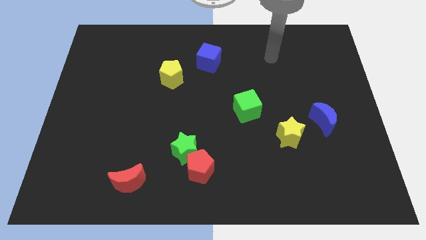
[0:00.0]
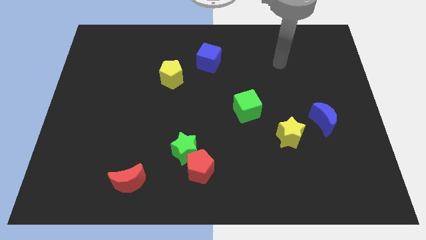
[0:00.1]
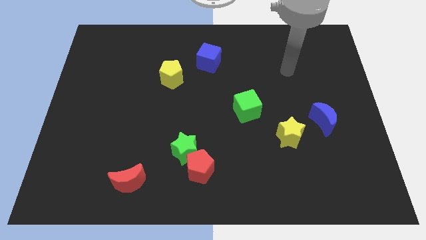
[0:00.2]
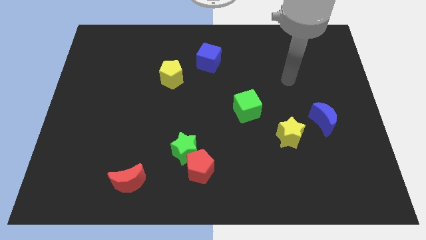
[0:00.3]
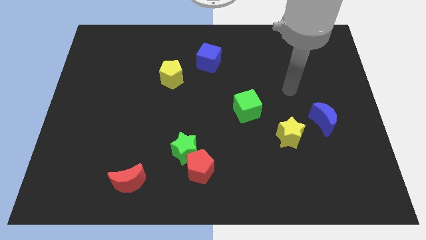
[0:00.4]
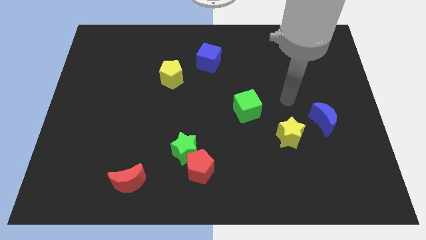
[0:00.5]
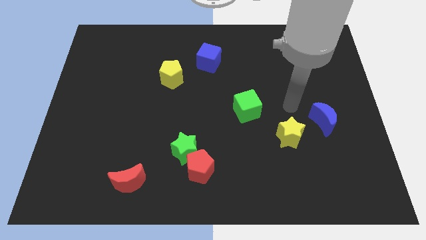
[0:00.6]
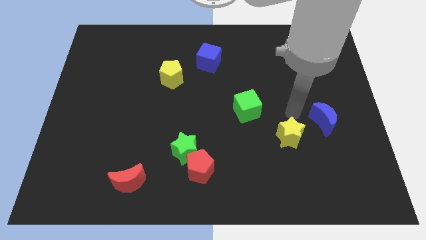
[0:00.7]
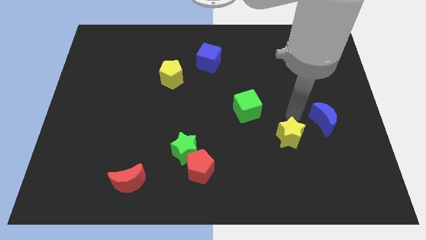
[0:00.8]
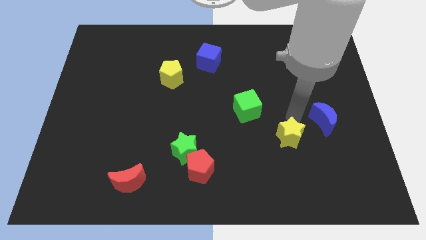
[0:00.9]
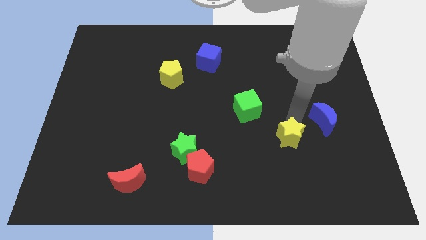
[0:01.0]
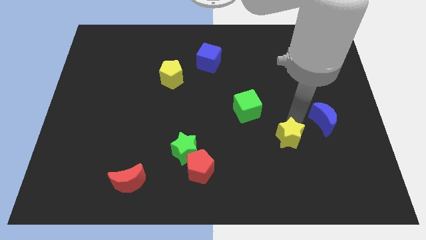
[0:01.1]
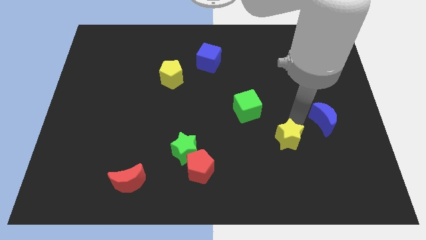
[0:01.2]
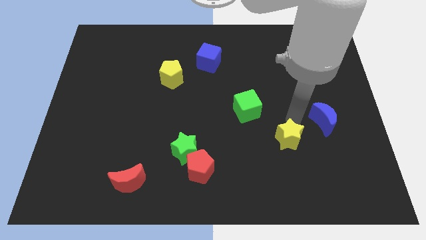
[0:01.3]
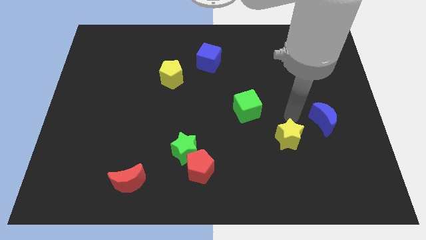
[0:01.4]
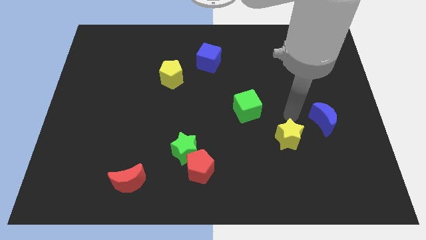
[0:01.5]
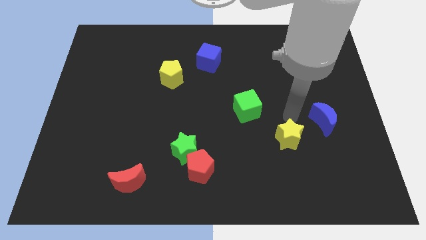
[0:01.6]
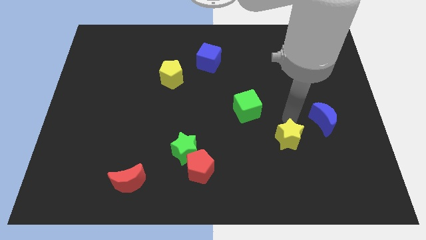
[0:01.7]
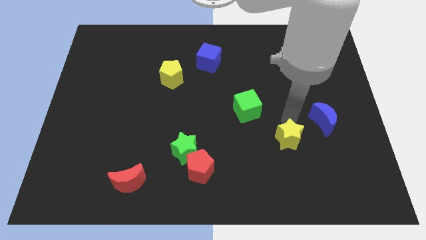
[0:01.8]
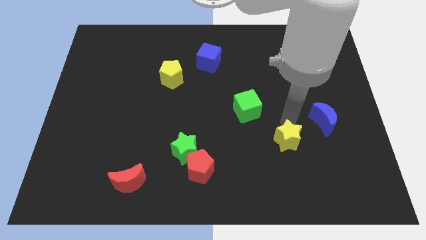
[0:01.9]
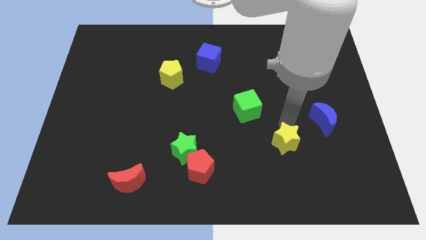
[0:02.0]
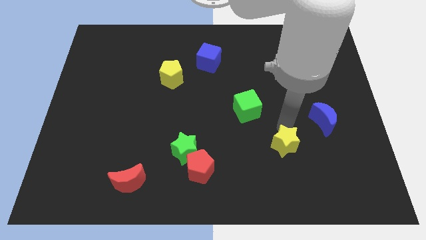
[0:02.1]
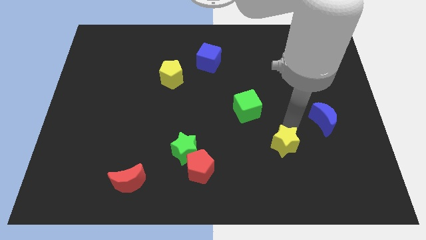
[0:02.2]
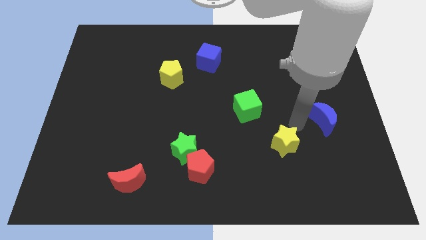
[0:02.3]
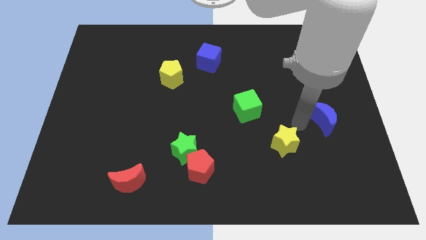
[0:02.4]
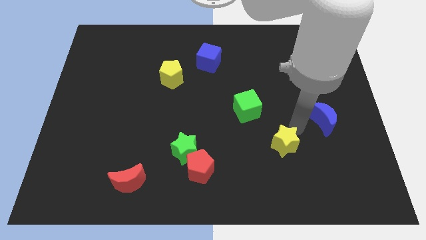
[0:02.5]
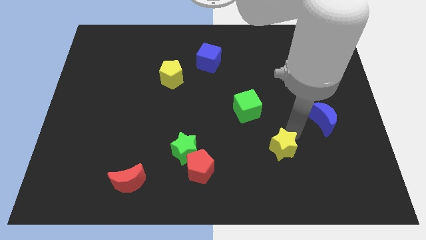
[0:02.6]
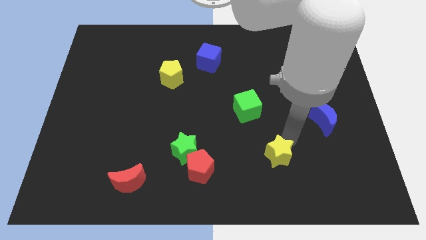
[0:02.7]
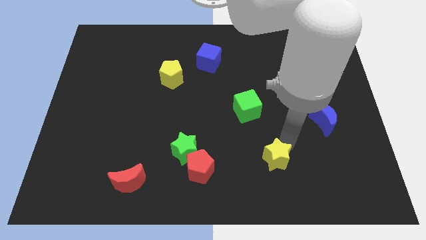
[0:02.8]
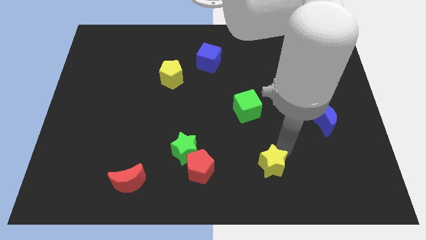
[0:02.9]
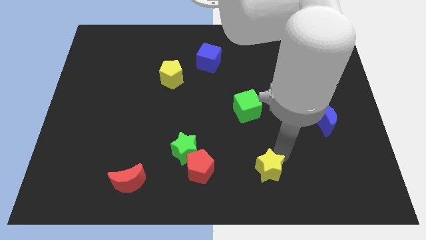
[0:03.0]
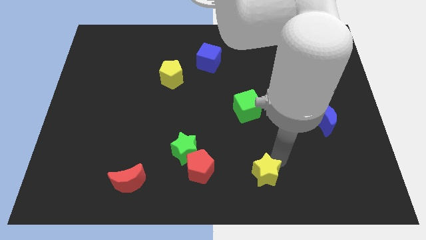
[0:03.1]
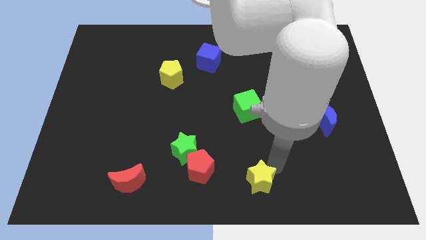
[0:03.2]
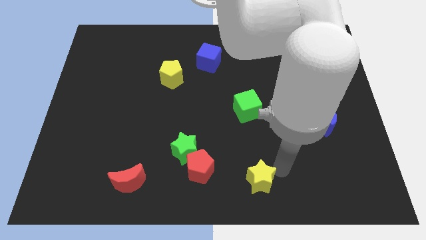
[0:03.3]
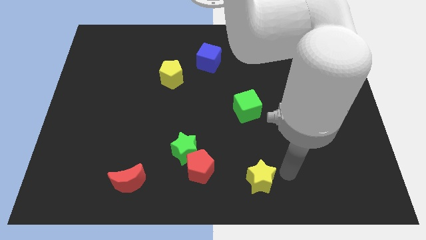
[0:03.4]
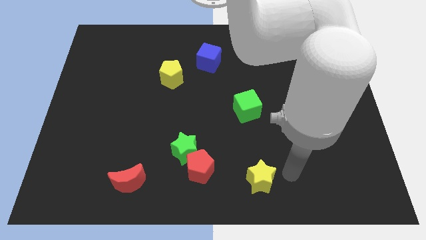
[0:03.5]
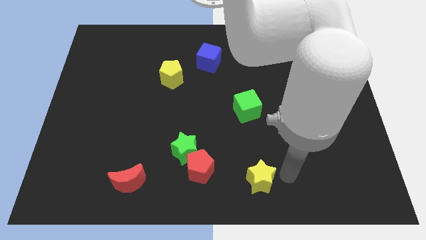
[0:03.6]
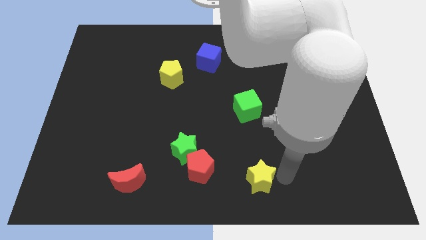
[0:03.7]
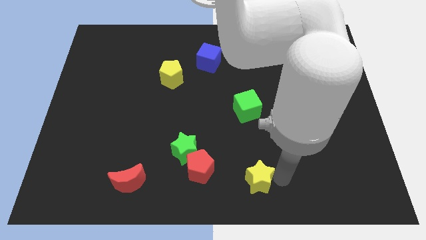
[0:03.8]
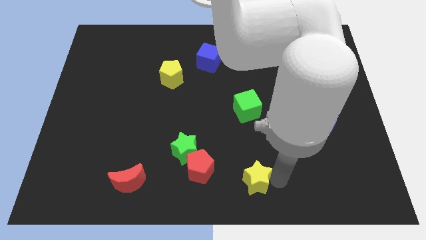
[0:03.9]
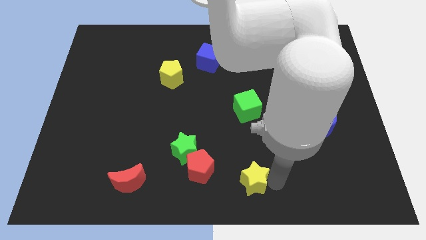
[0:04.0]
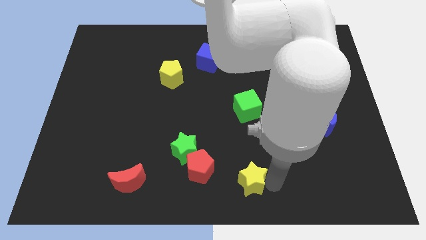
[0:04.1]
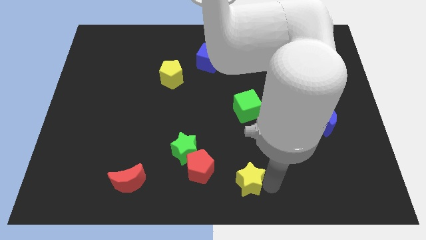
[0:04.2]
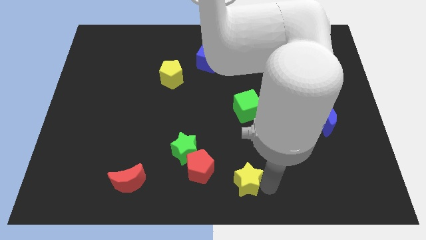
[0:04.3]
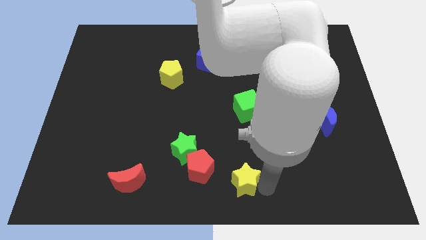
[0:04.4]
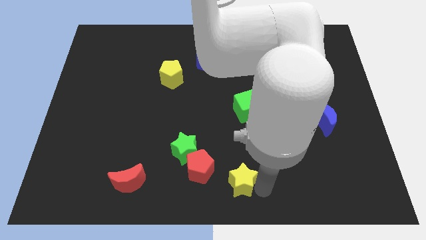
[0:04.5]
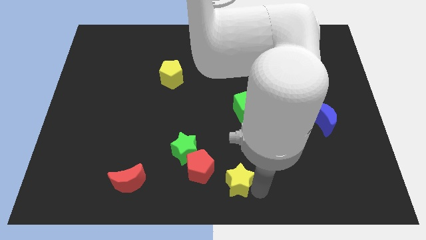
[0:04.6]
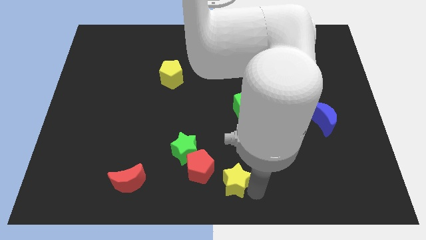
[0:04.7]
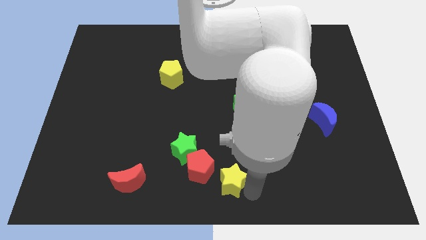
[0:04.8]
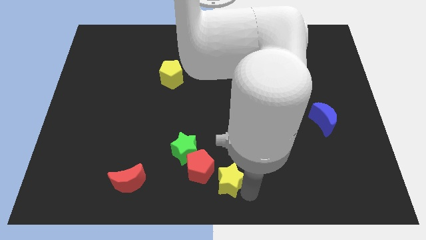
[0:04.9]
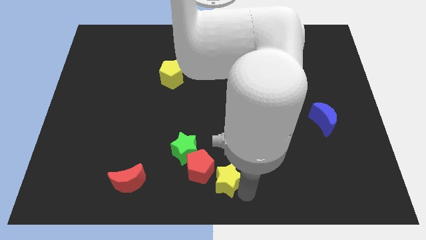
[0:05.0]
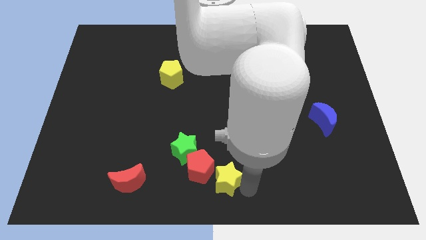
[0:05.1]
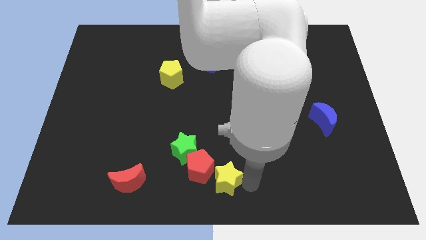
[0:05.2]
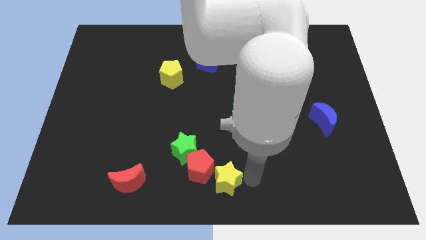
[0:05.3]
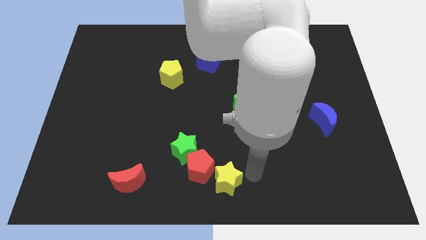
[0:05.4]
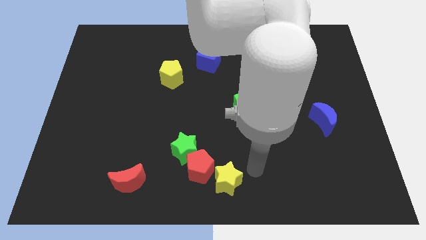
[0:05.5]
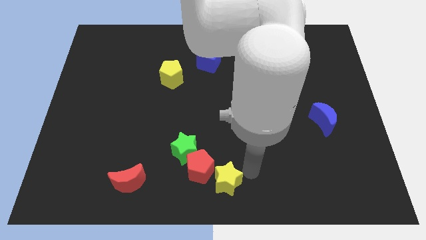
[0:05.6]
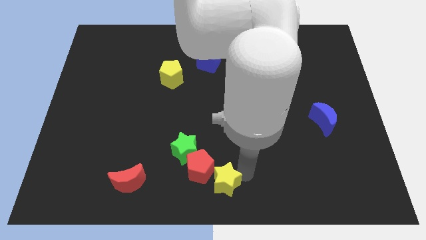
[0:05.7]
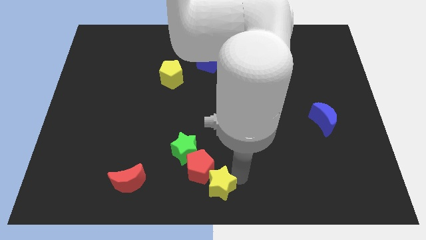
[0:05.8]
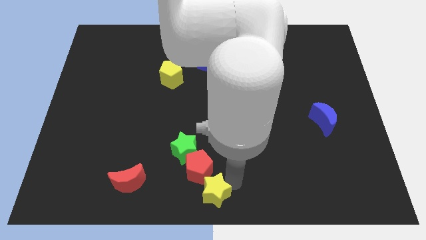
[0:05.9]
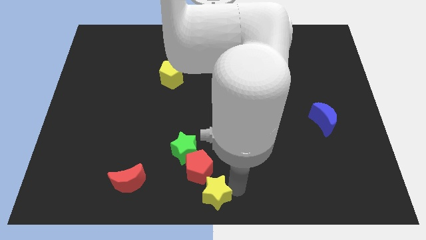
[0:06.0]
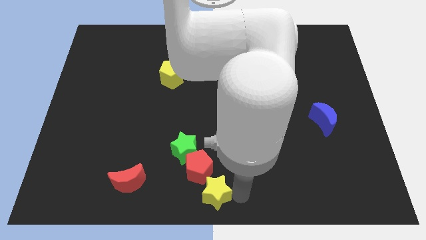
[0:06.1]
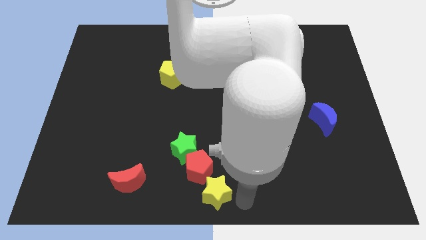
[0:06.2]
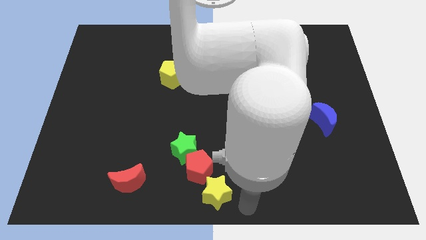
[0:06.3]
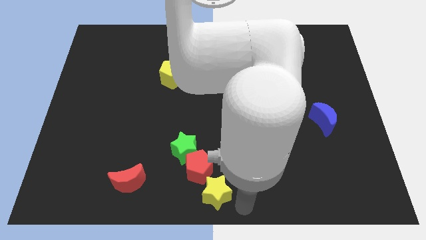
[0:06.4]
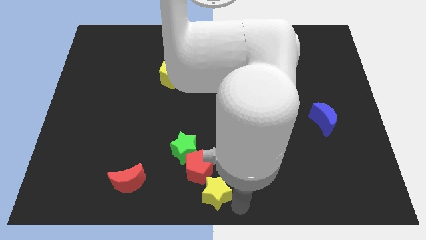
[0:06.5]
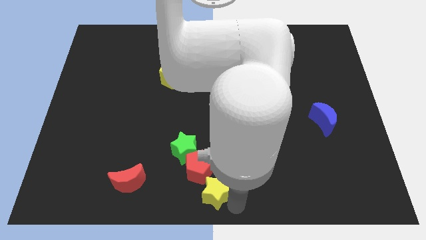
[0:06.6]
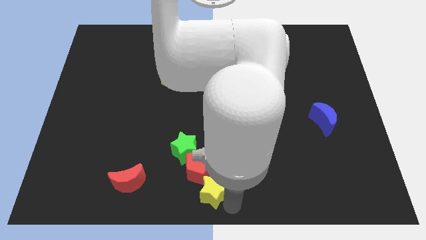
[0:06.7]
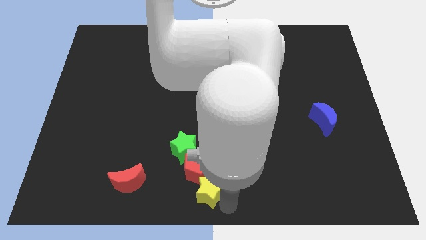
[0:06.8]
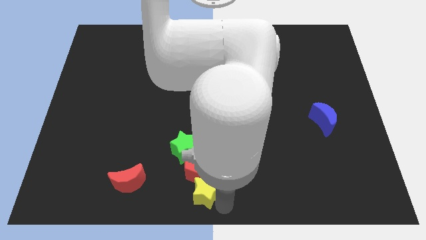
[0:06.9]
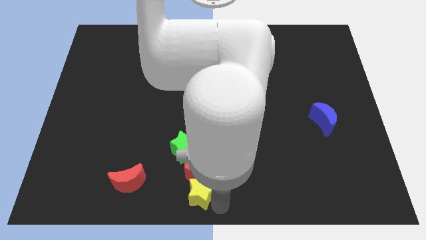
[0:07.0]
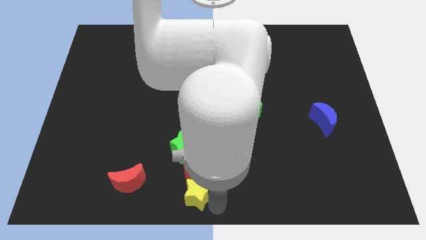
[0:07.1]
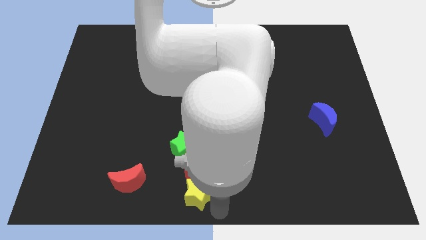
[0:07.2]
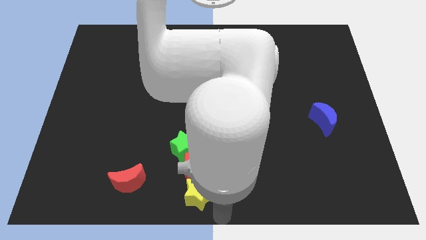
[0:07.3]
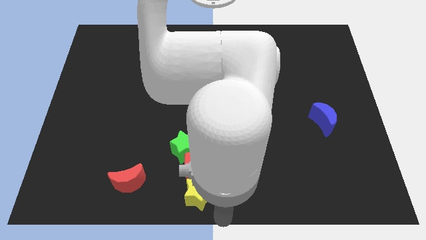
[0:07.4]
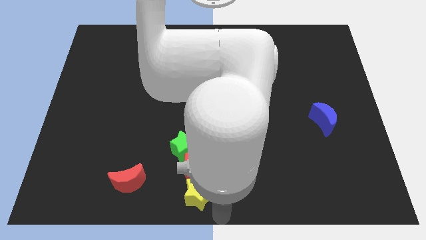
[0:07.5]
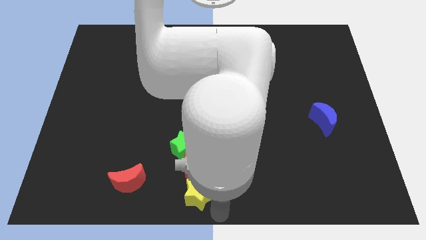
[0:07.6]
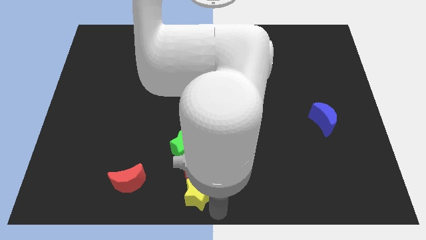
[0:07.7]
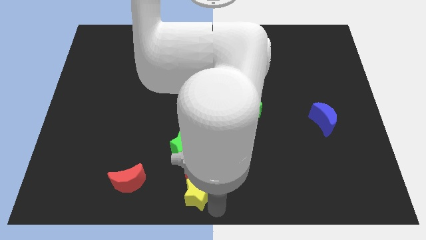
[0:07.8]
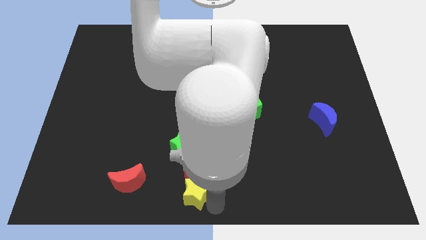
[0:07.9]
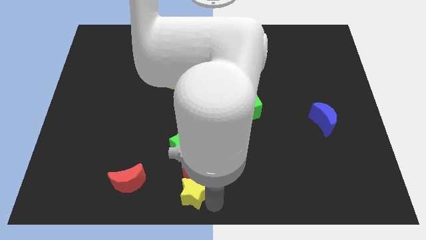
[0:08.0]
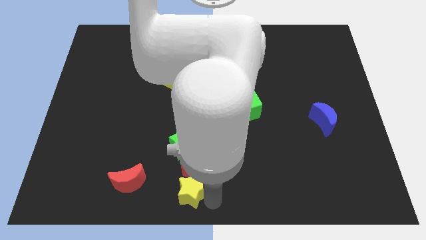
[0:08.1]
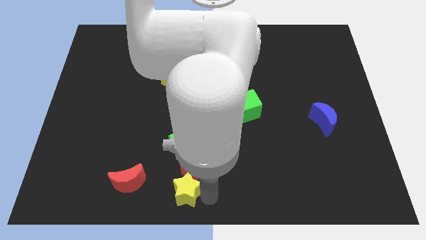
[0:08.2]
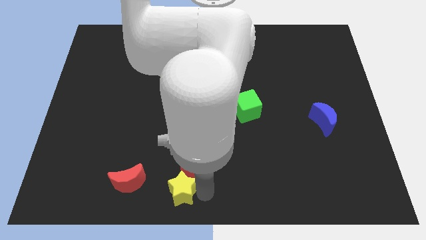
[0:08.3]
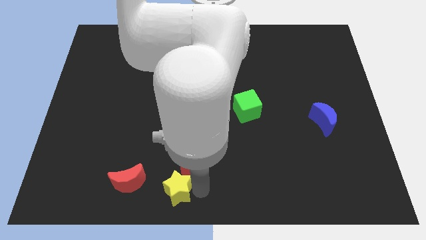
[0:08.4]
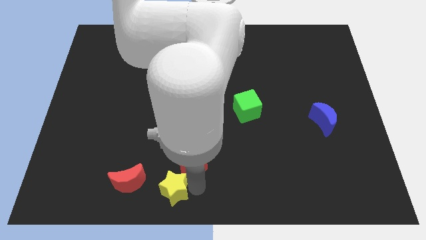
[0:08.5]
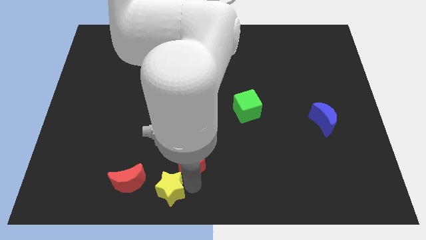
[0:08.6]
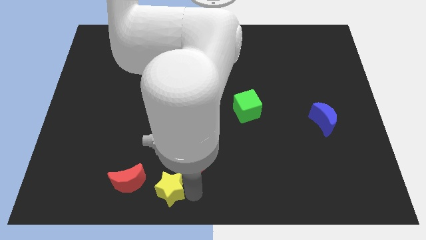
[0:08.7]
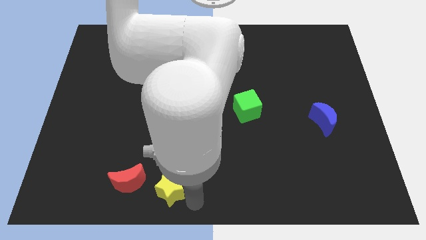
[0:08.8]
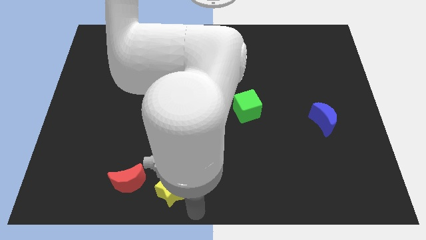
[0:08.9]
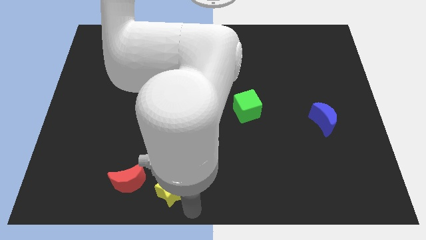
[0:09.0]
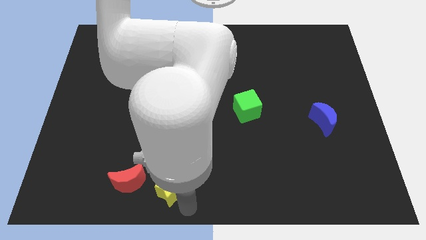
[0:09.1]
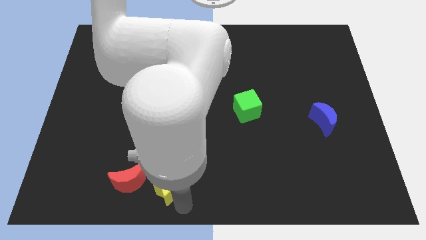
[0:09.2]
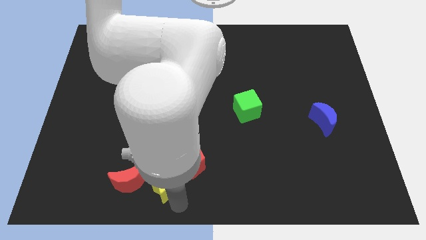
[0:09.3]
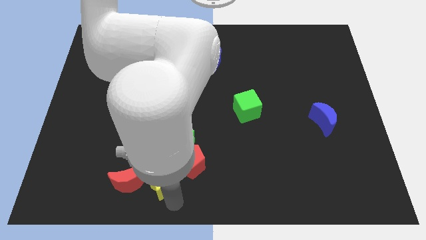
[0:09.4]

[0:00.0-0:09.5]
move the yellow star left of the red pentagon
